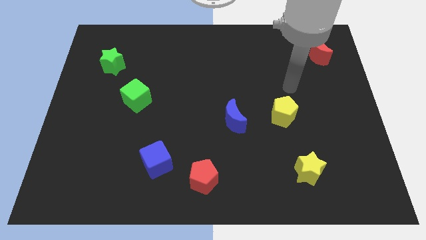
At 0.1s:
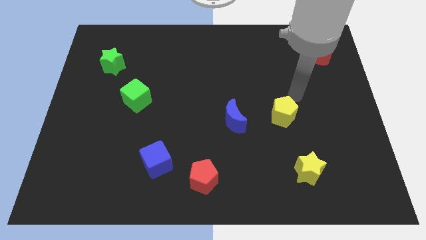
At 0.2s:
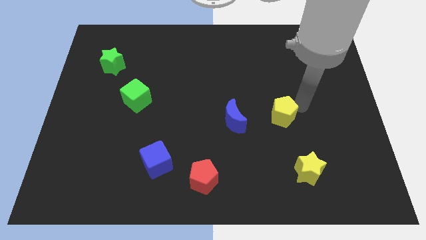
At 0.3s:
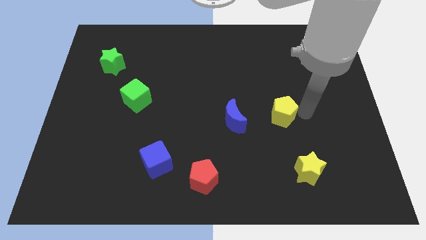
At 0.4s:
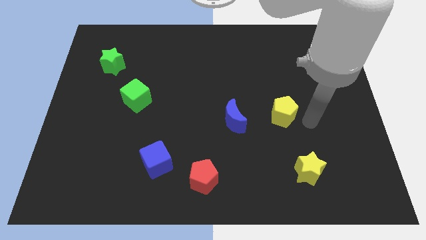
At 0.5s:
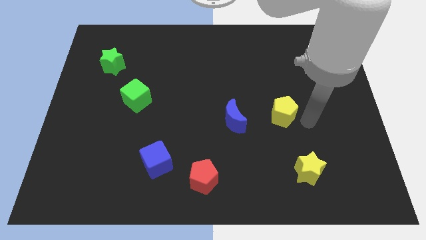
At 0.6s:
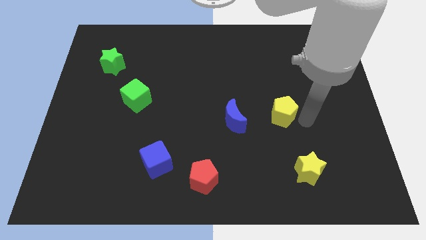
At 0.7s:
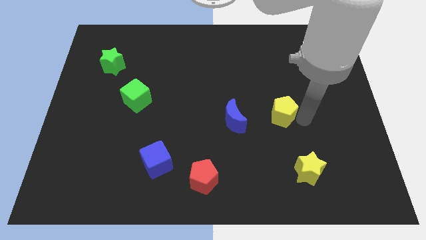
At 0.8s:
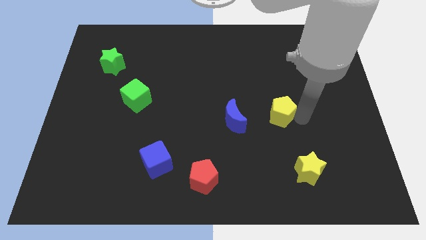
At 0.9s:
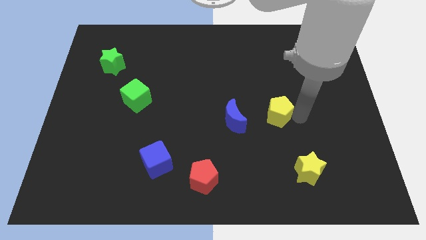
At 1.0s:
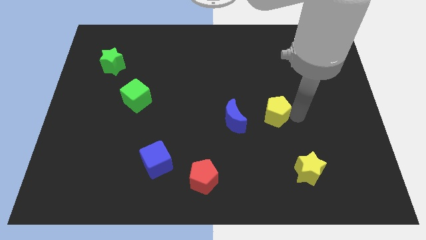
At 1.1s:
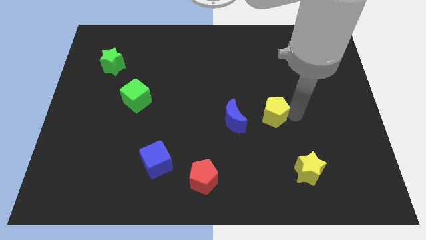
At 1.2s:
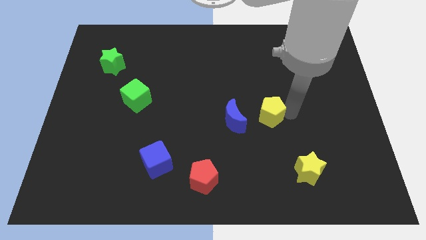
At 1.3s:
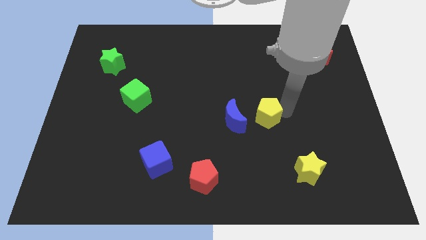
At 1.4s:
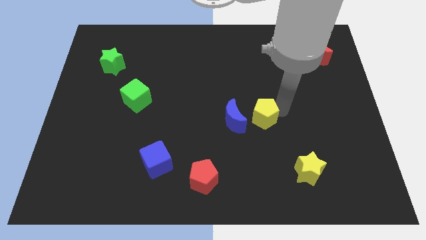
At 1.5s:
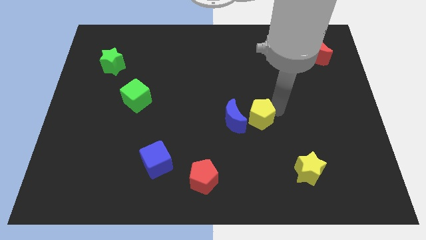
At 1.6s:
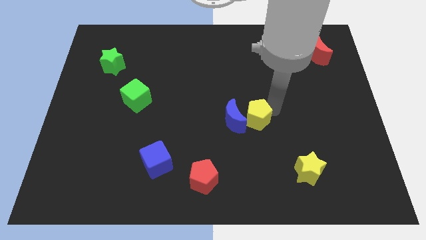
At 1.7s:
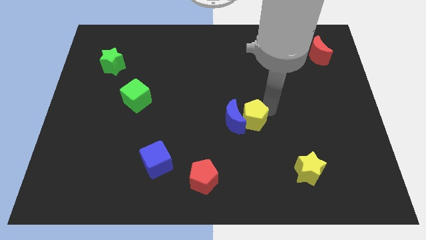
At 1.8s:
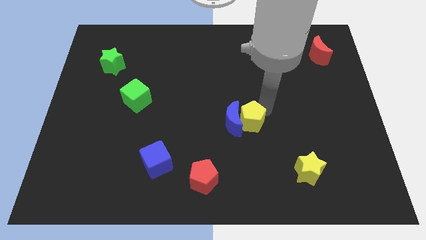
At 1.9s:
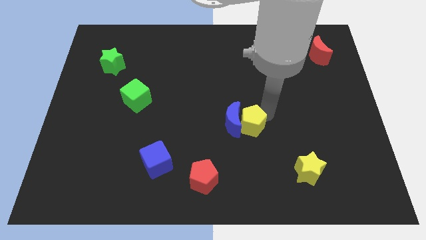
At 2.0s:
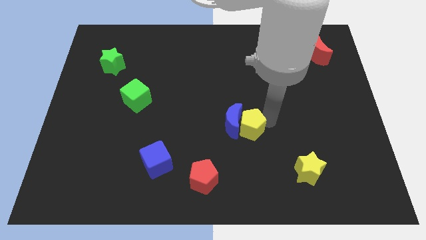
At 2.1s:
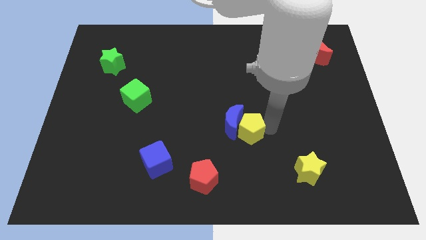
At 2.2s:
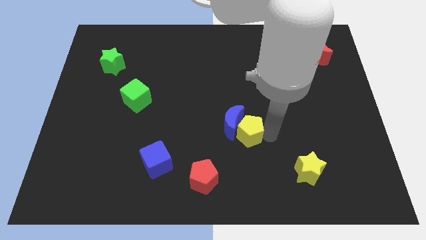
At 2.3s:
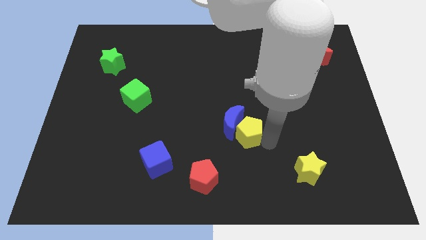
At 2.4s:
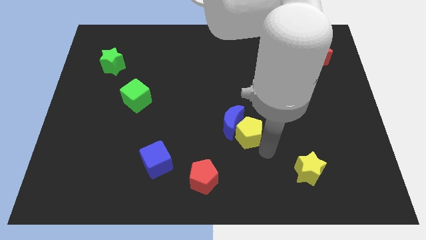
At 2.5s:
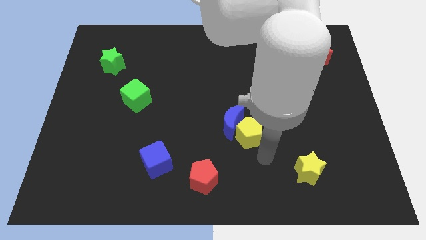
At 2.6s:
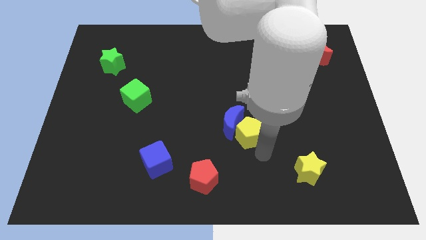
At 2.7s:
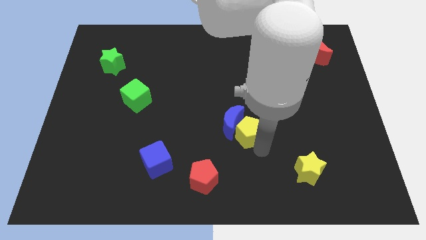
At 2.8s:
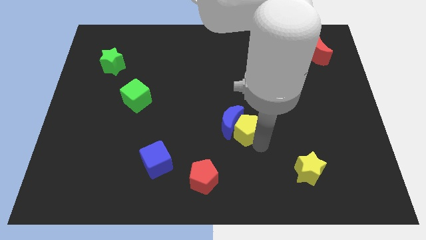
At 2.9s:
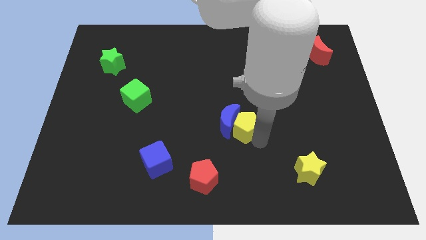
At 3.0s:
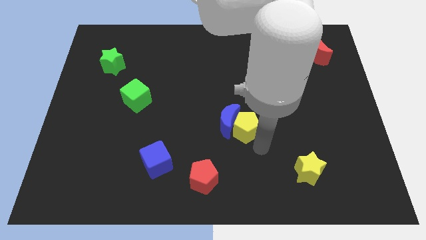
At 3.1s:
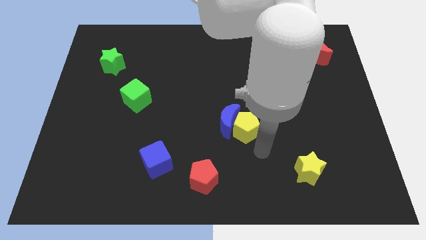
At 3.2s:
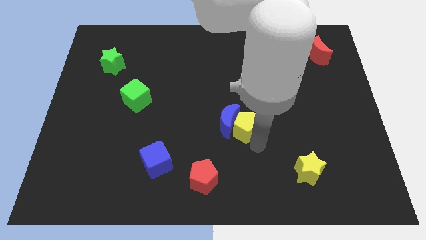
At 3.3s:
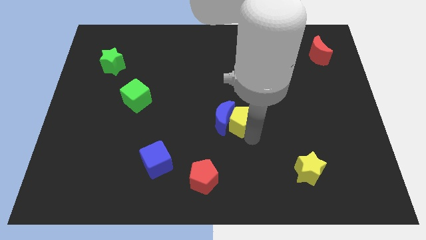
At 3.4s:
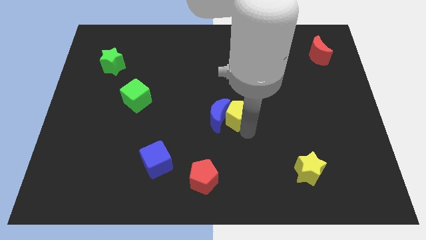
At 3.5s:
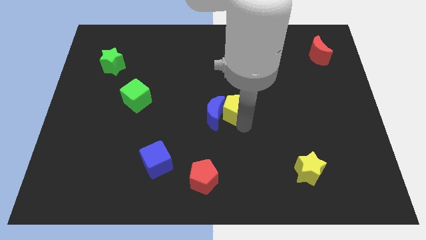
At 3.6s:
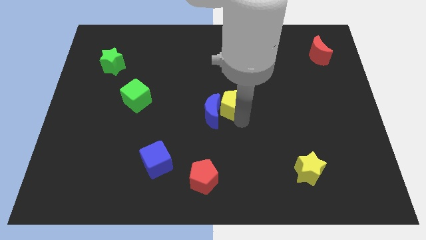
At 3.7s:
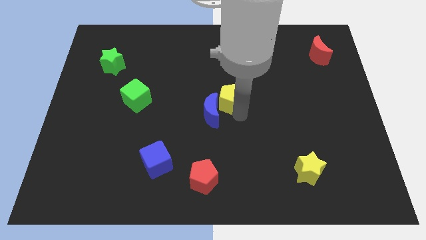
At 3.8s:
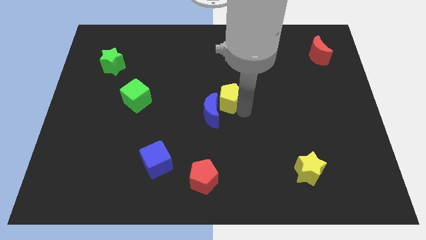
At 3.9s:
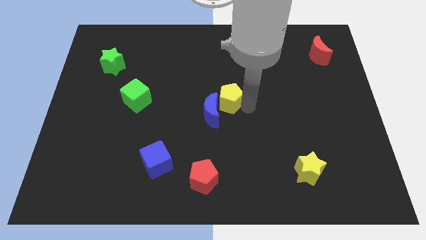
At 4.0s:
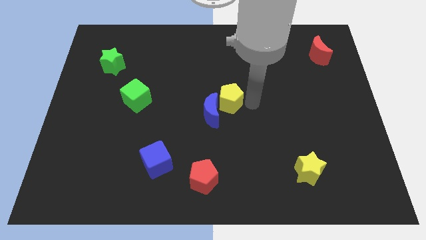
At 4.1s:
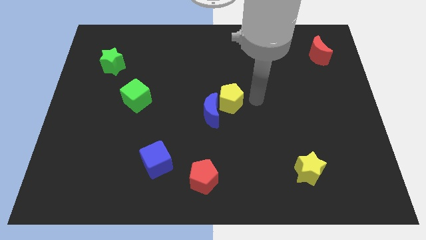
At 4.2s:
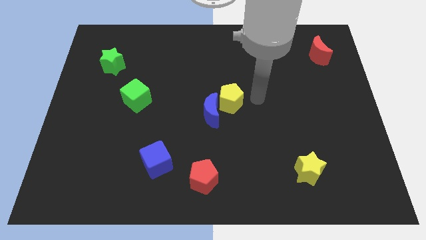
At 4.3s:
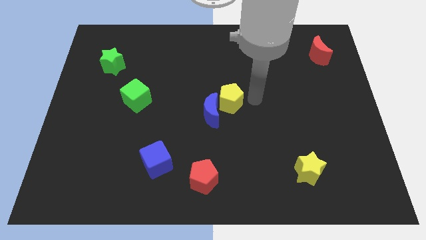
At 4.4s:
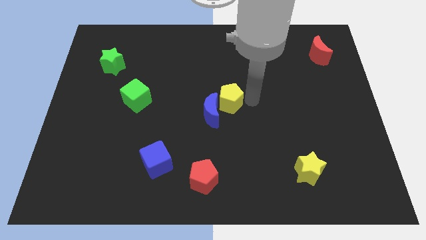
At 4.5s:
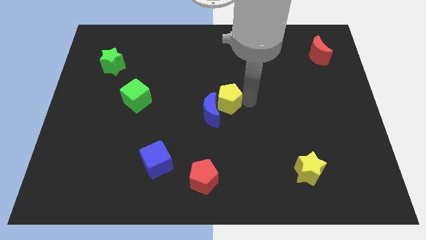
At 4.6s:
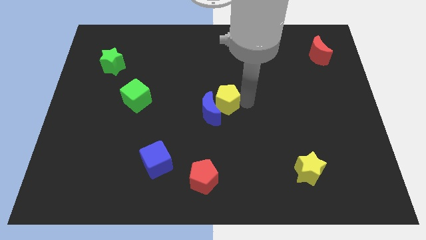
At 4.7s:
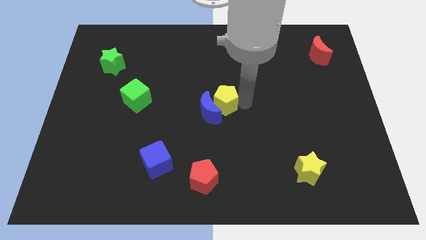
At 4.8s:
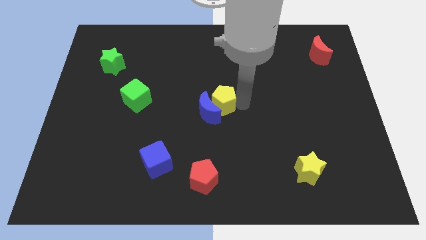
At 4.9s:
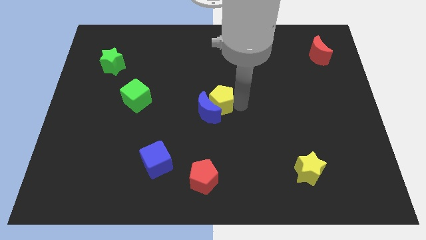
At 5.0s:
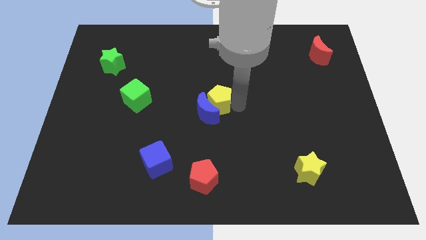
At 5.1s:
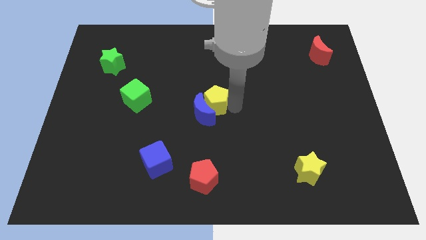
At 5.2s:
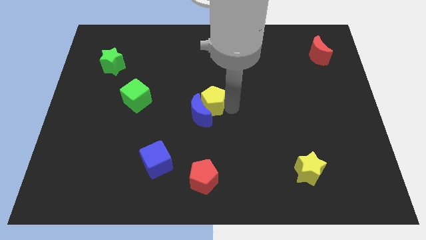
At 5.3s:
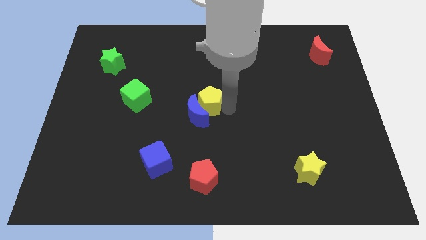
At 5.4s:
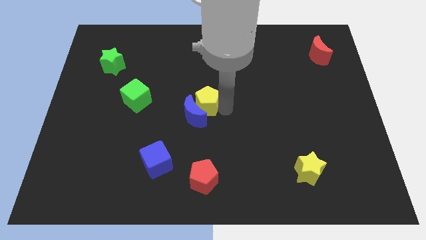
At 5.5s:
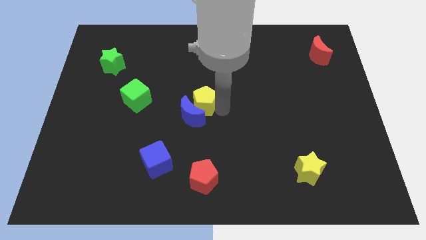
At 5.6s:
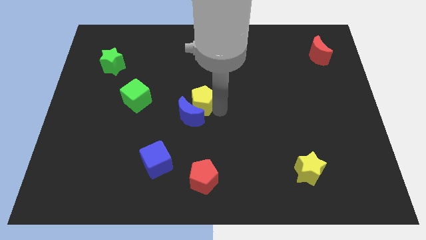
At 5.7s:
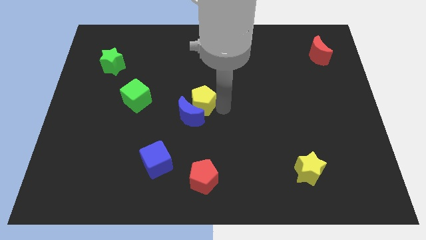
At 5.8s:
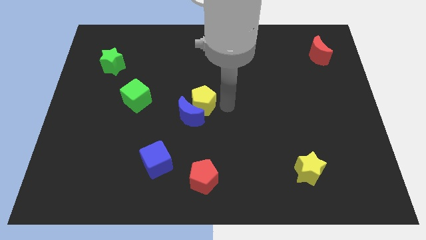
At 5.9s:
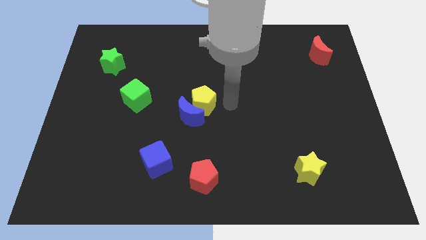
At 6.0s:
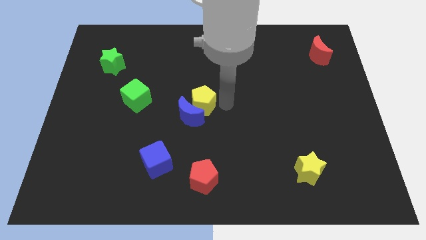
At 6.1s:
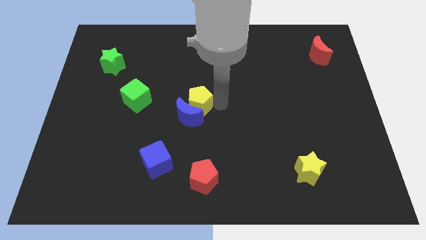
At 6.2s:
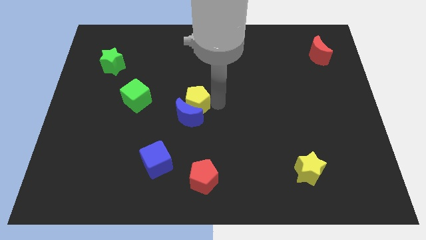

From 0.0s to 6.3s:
push the yellow pentagon left

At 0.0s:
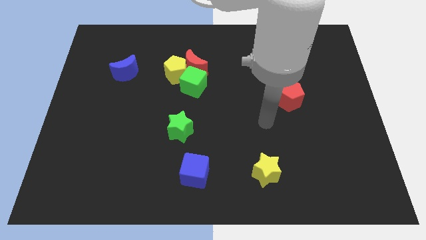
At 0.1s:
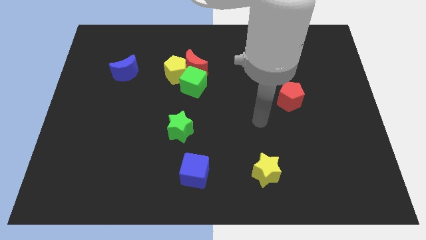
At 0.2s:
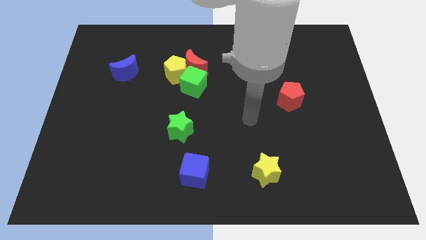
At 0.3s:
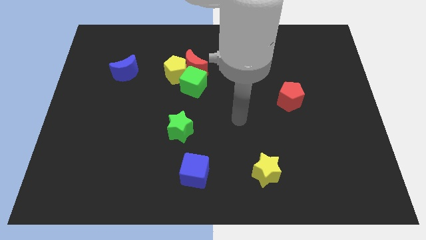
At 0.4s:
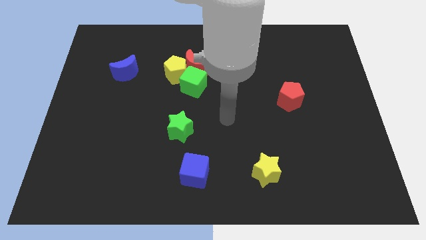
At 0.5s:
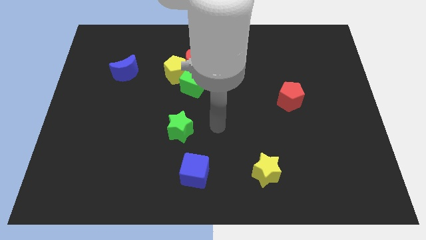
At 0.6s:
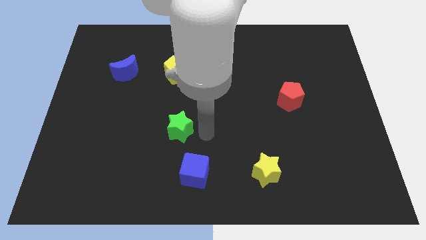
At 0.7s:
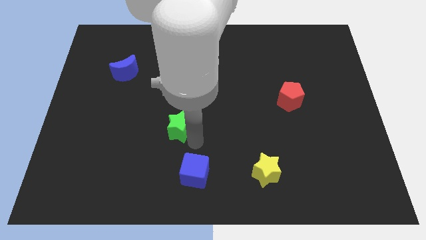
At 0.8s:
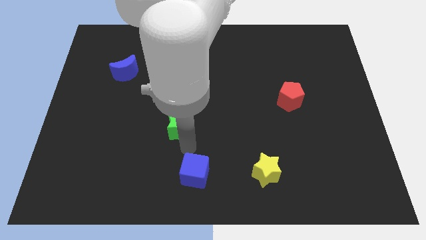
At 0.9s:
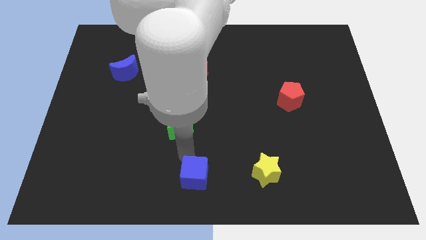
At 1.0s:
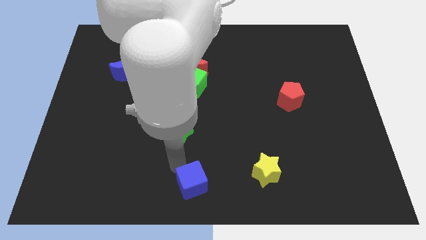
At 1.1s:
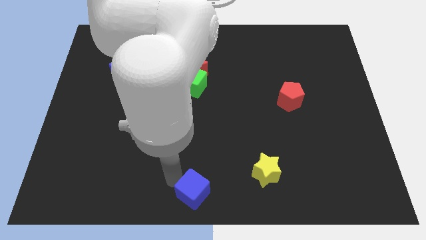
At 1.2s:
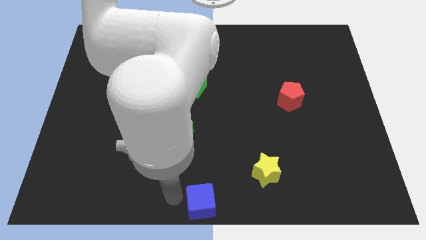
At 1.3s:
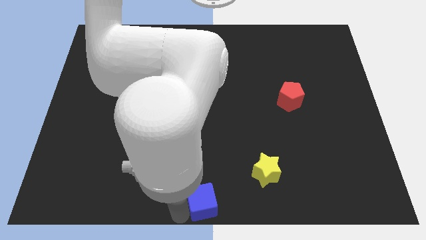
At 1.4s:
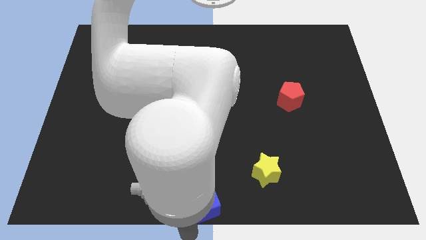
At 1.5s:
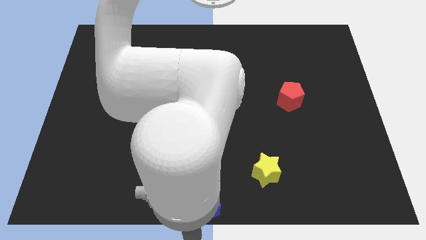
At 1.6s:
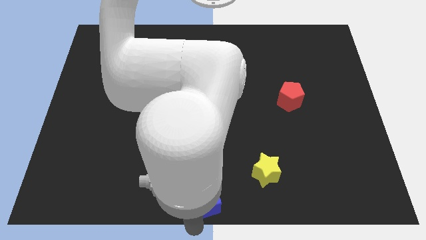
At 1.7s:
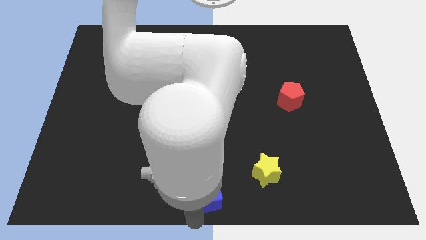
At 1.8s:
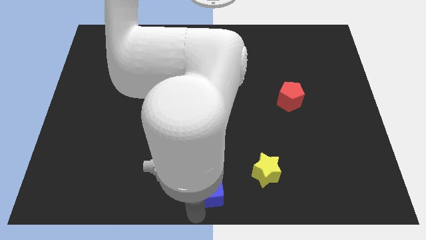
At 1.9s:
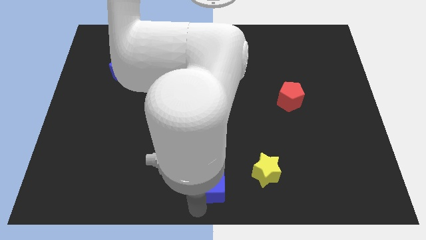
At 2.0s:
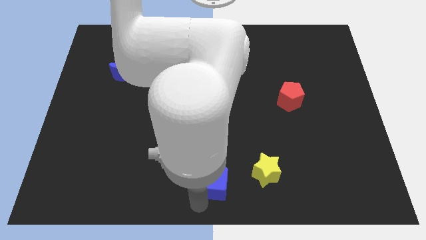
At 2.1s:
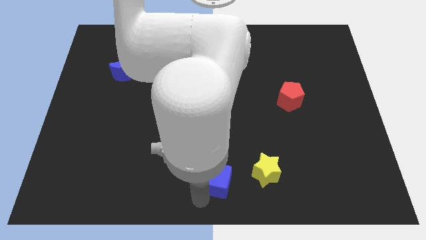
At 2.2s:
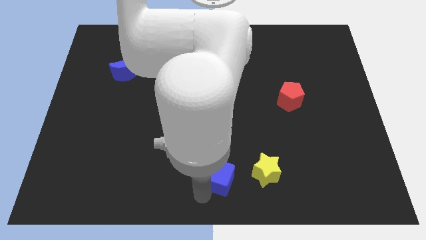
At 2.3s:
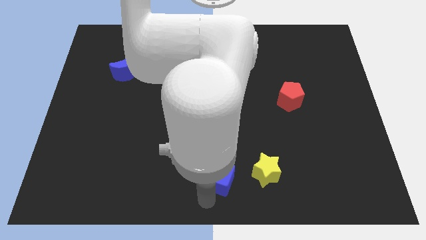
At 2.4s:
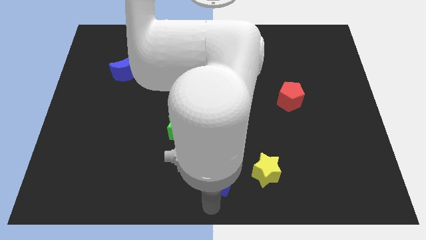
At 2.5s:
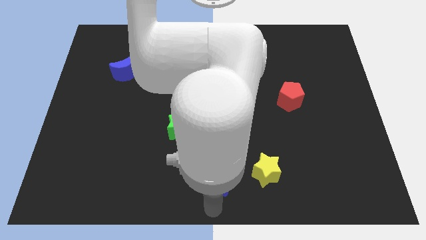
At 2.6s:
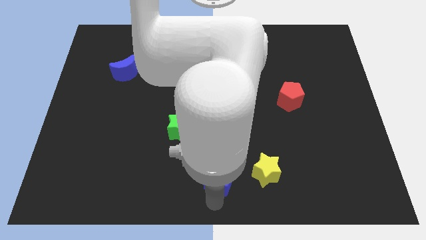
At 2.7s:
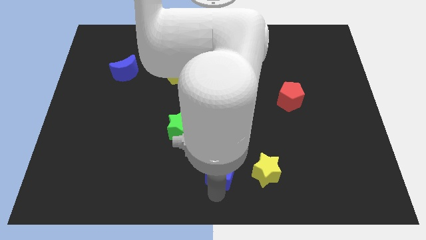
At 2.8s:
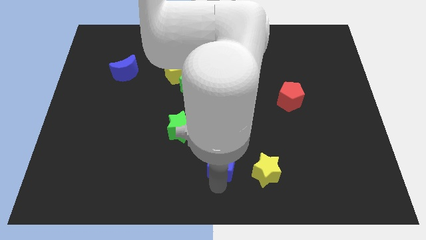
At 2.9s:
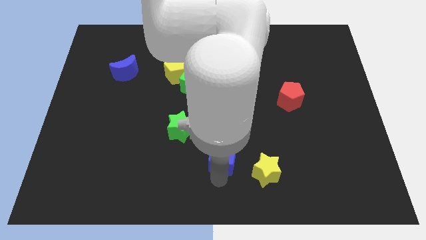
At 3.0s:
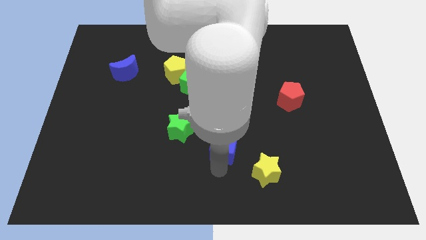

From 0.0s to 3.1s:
slide the blue cube a little upwards and then to the right
